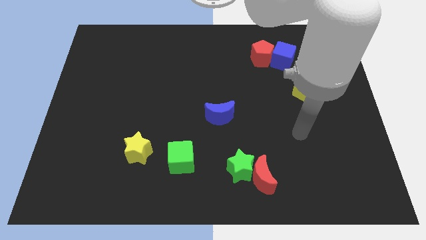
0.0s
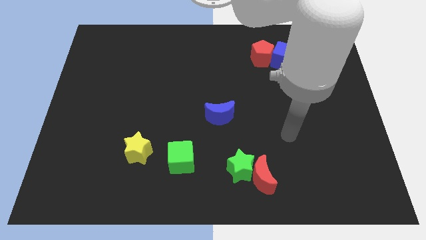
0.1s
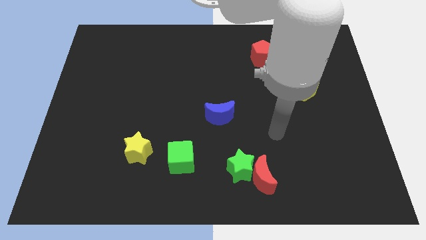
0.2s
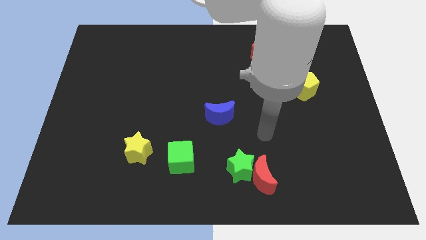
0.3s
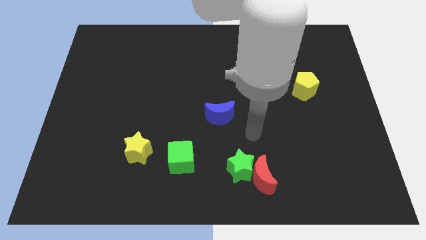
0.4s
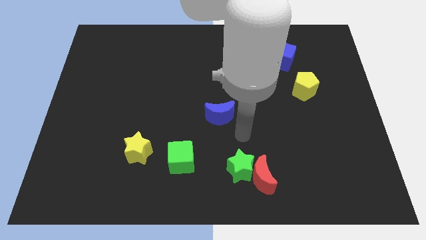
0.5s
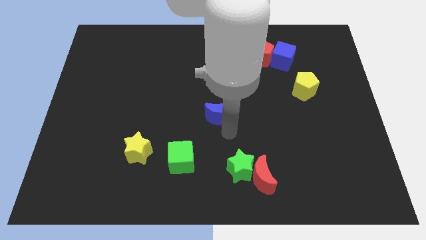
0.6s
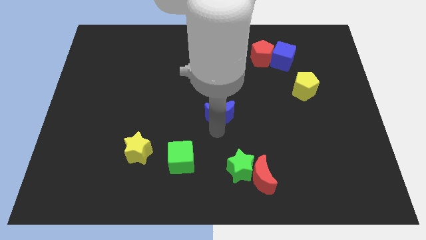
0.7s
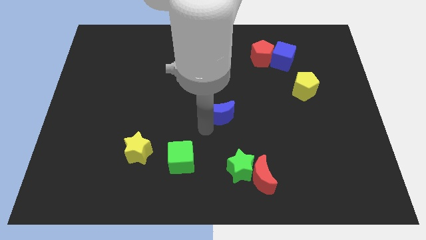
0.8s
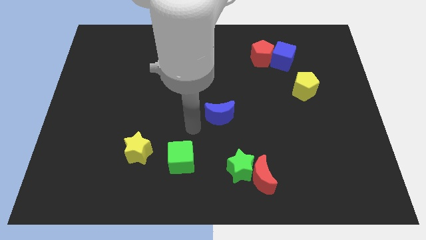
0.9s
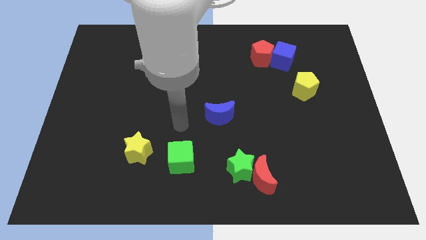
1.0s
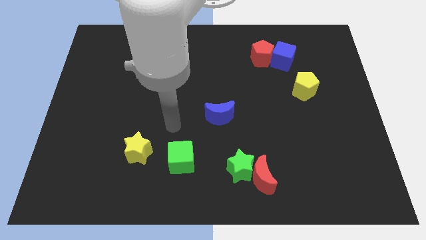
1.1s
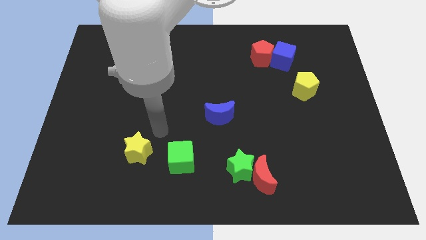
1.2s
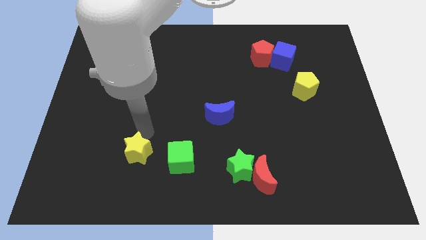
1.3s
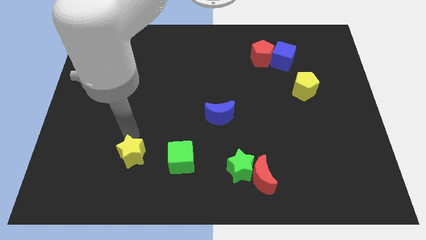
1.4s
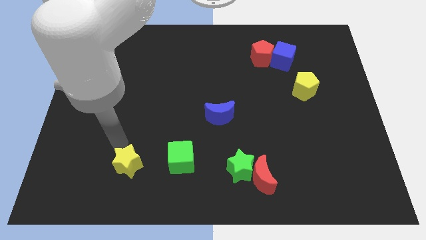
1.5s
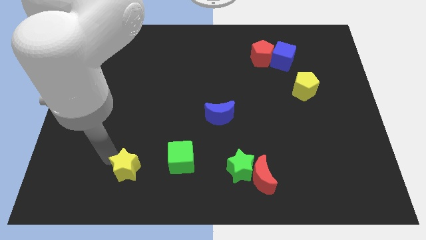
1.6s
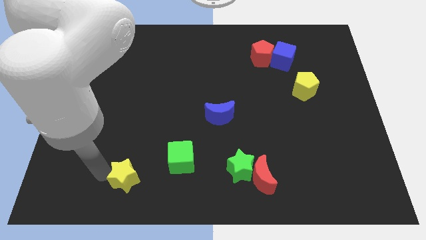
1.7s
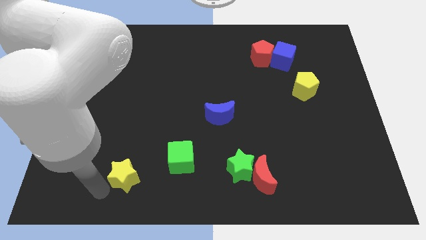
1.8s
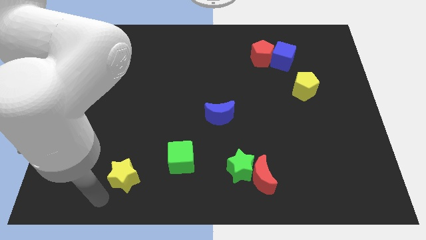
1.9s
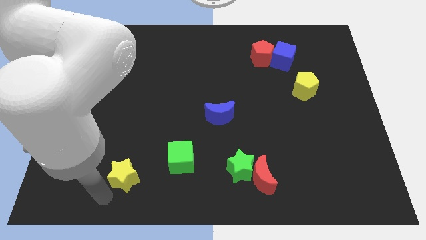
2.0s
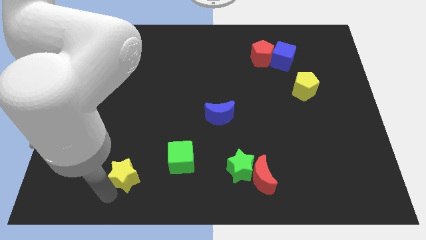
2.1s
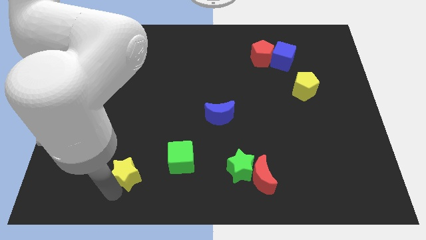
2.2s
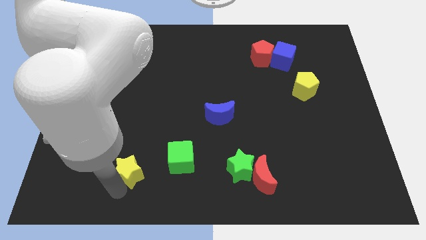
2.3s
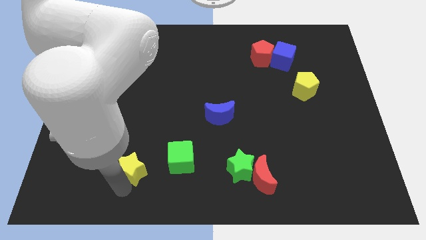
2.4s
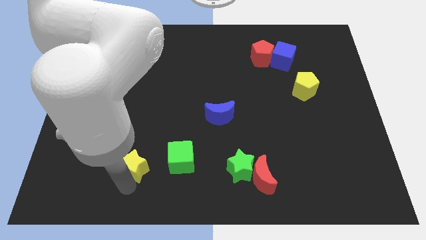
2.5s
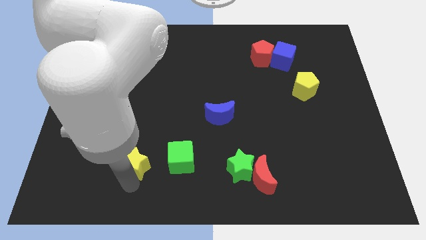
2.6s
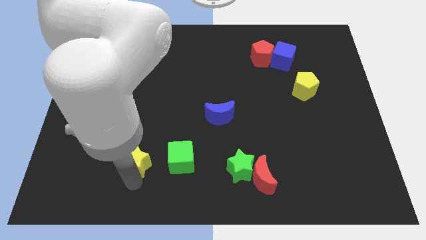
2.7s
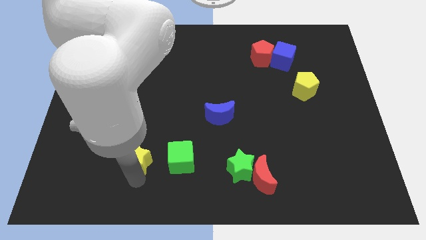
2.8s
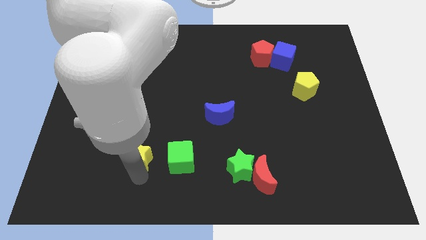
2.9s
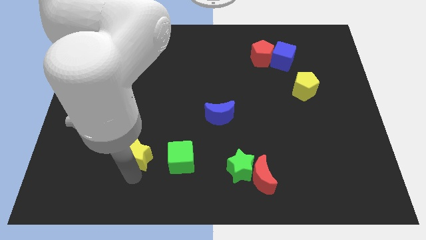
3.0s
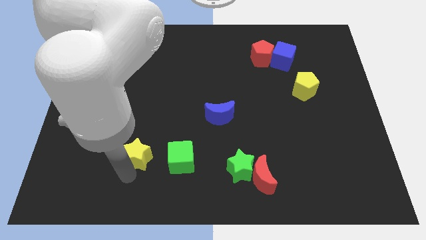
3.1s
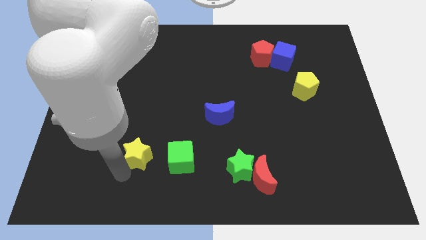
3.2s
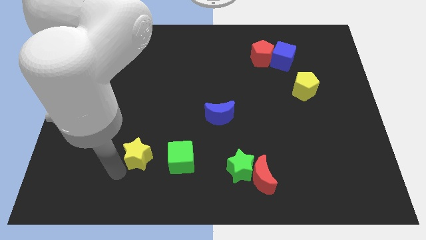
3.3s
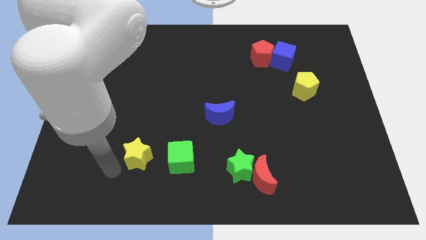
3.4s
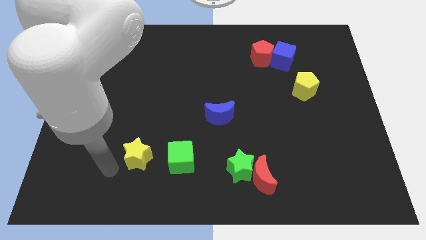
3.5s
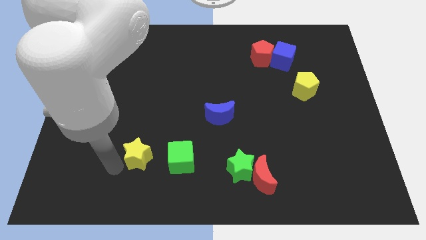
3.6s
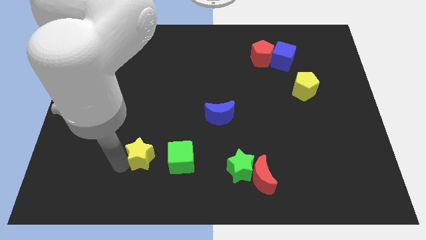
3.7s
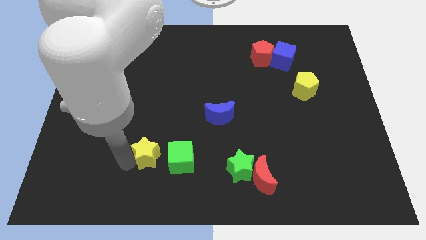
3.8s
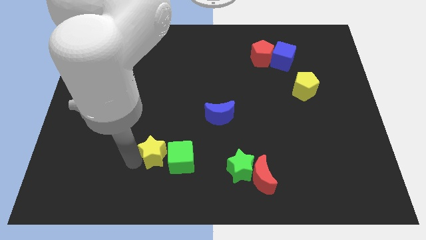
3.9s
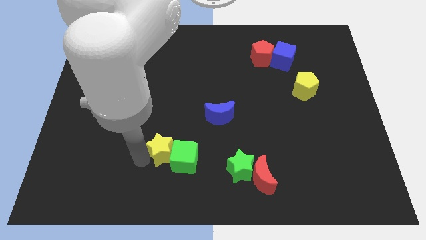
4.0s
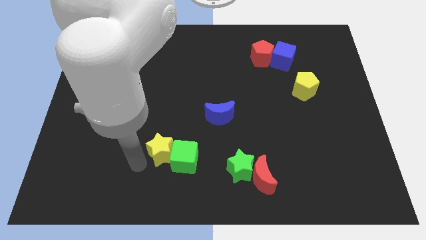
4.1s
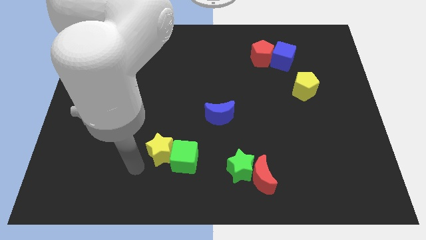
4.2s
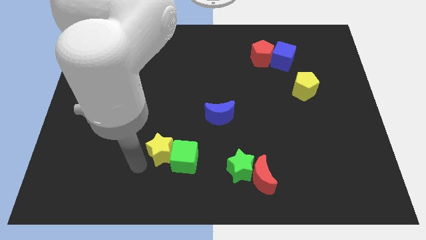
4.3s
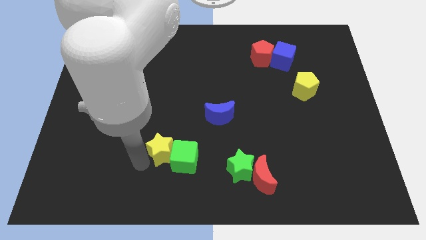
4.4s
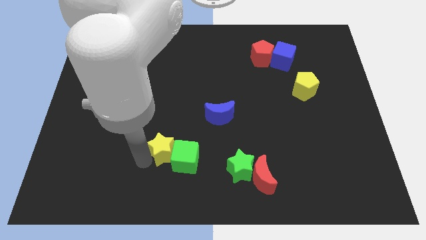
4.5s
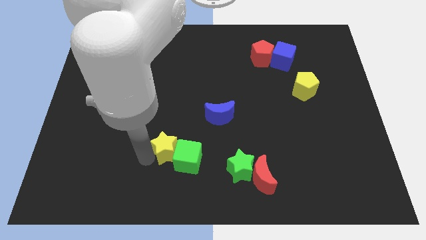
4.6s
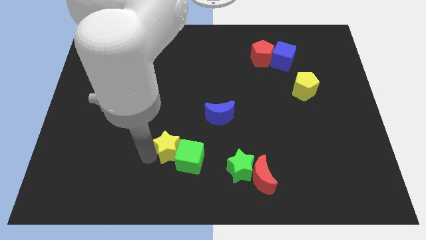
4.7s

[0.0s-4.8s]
push the yellow star a little to the right

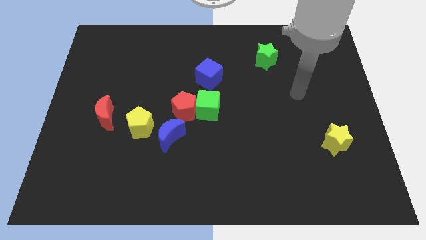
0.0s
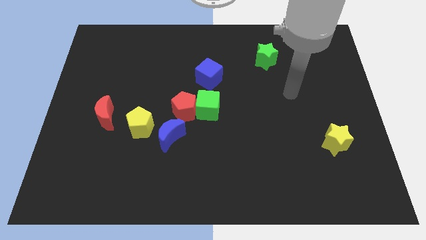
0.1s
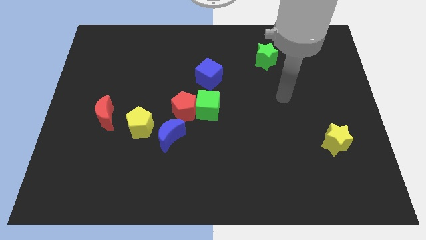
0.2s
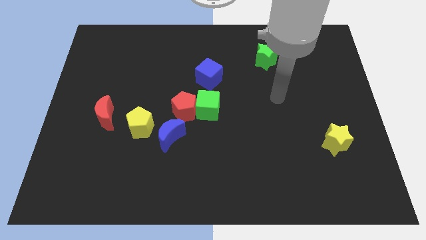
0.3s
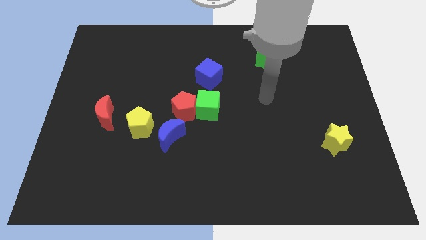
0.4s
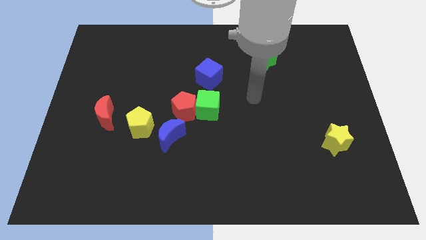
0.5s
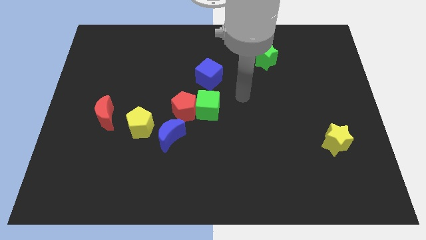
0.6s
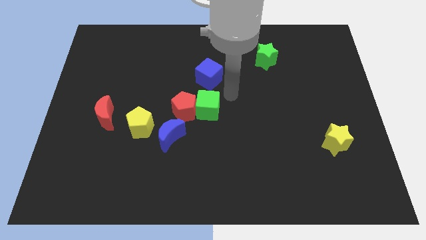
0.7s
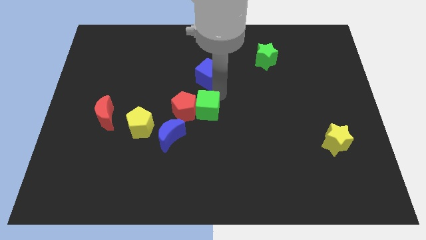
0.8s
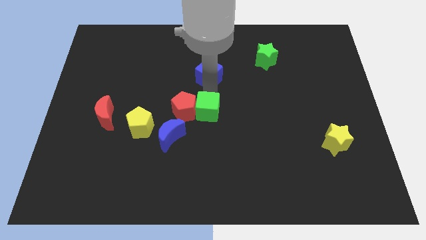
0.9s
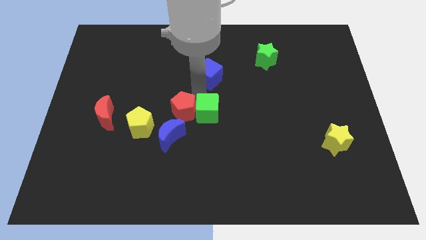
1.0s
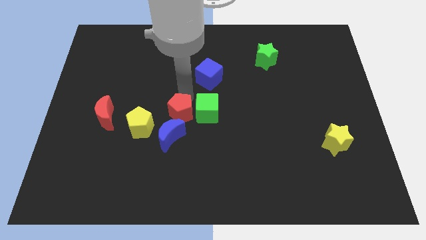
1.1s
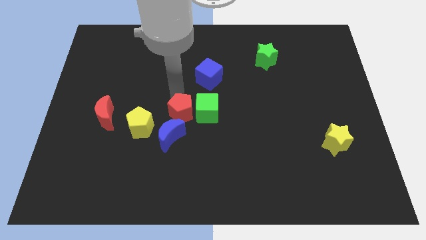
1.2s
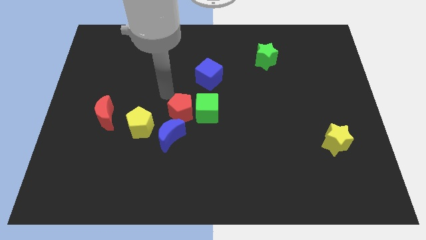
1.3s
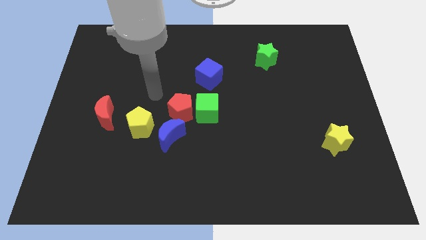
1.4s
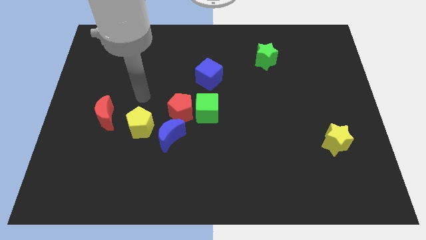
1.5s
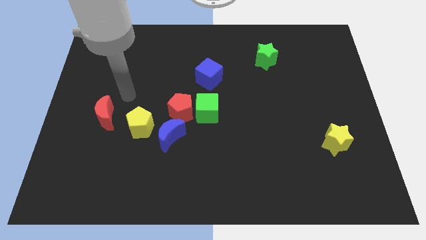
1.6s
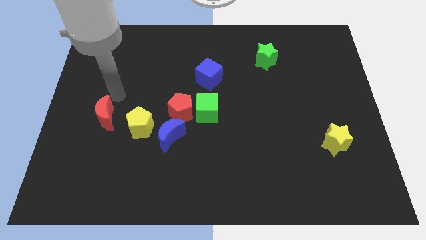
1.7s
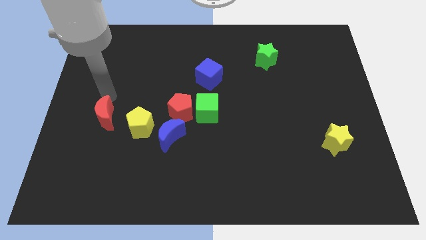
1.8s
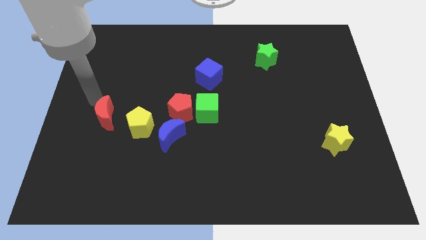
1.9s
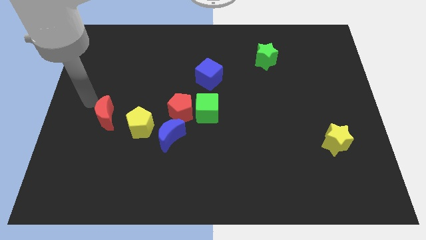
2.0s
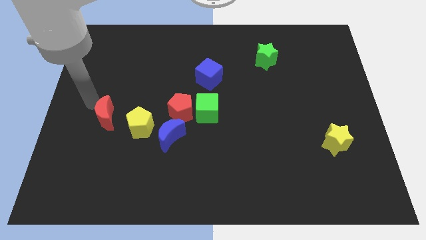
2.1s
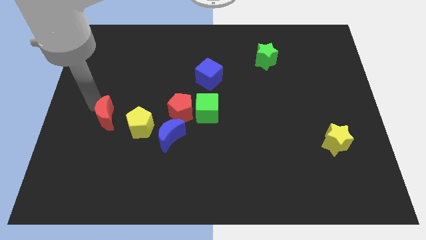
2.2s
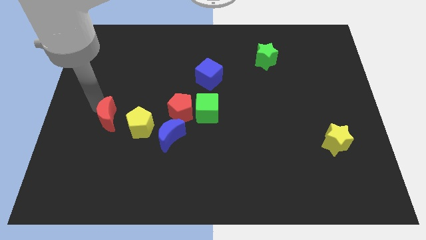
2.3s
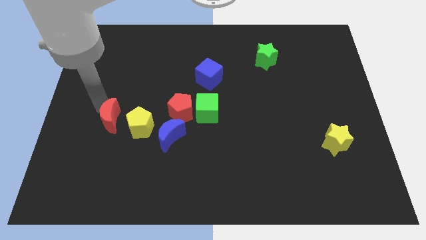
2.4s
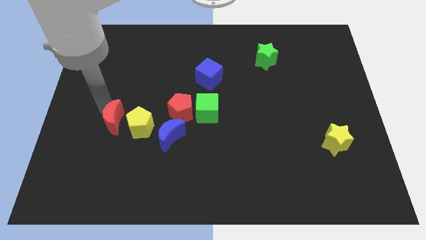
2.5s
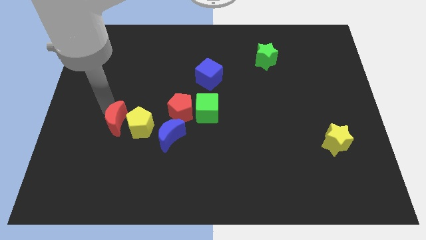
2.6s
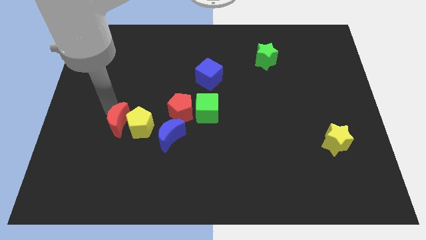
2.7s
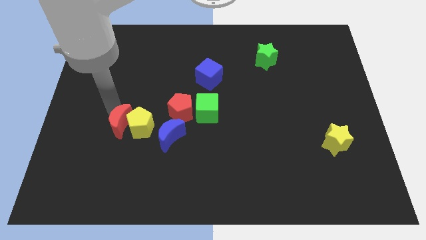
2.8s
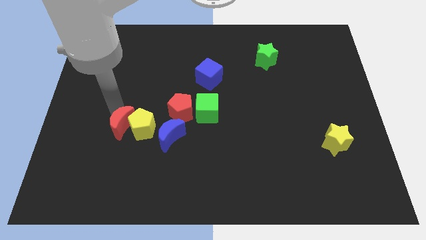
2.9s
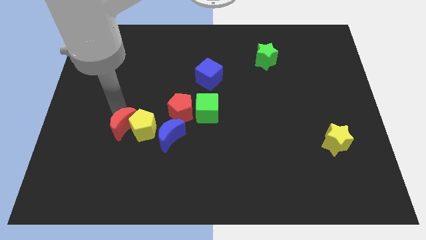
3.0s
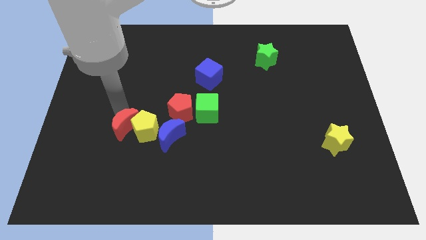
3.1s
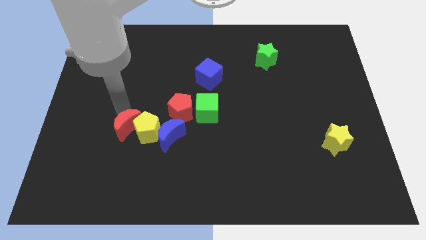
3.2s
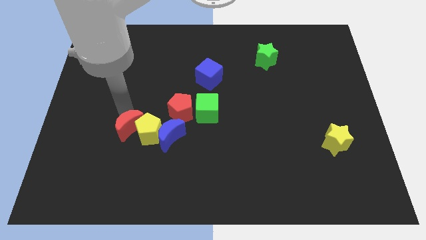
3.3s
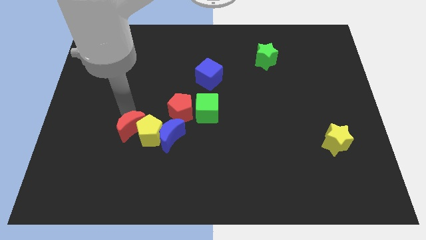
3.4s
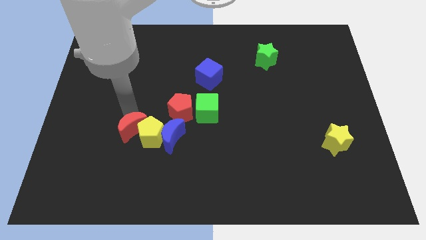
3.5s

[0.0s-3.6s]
move the red moon down and then right a little
